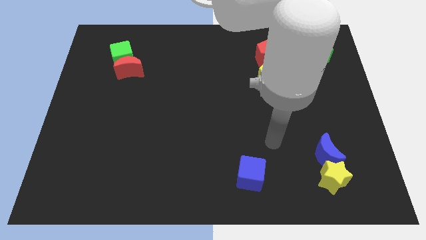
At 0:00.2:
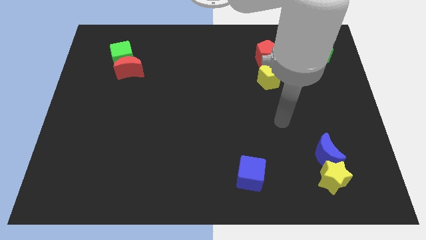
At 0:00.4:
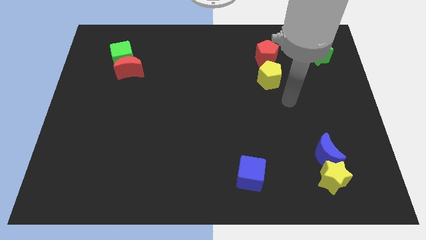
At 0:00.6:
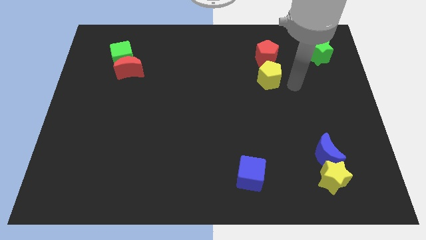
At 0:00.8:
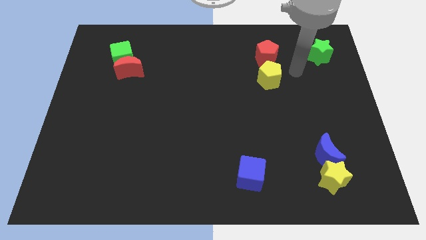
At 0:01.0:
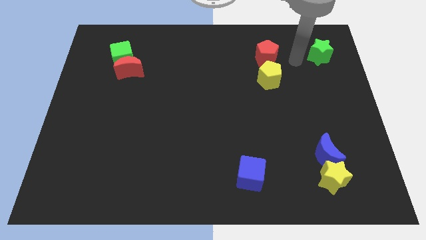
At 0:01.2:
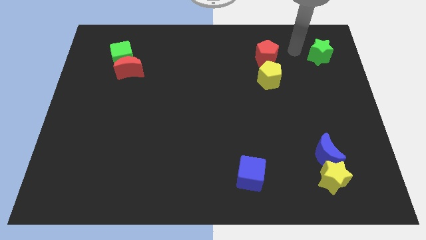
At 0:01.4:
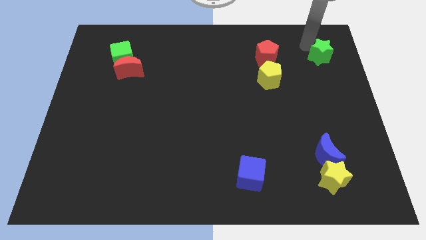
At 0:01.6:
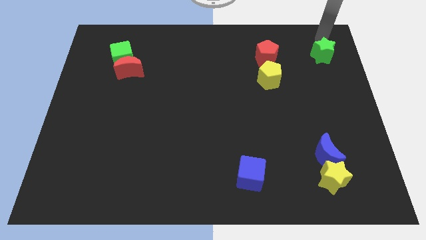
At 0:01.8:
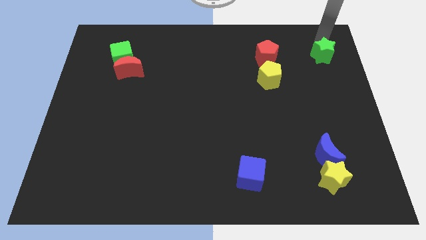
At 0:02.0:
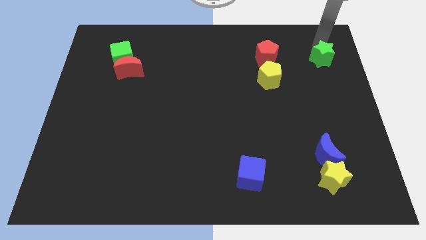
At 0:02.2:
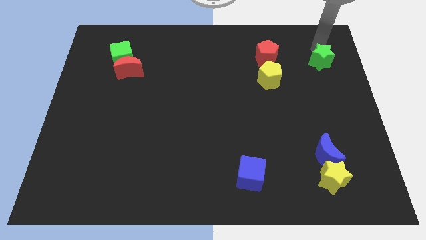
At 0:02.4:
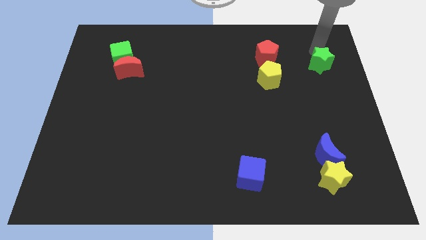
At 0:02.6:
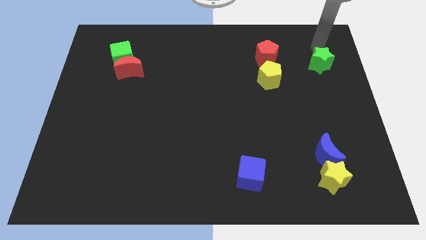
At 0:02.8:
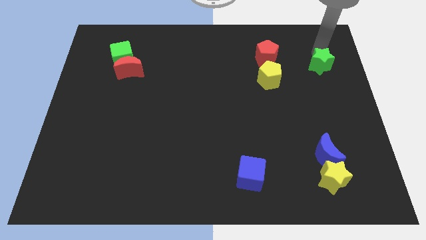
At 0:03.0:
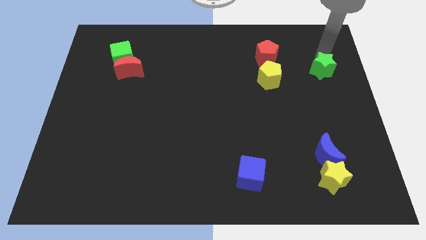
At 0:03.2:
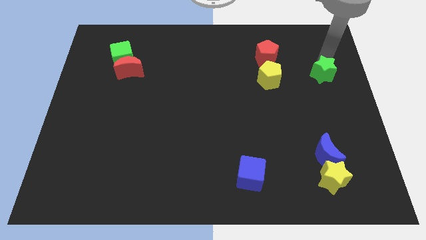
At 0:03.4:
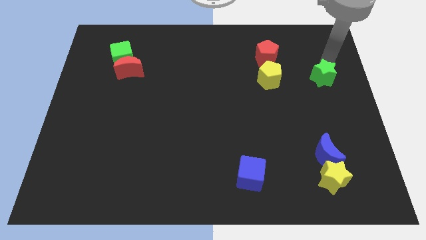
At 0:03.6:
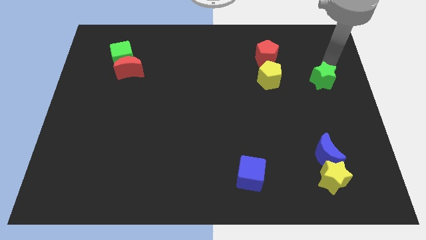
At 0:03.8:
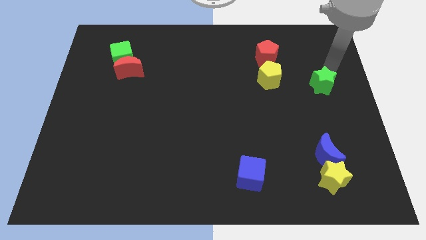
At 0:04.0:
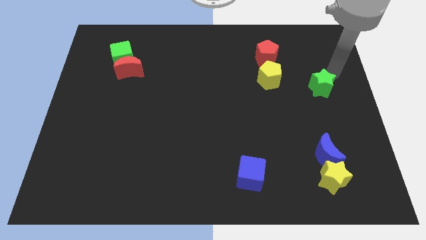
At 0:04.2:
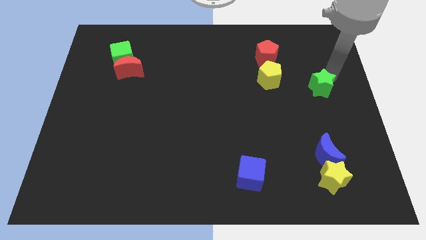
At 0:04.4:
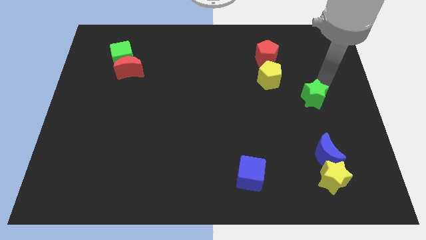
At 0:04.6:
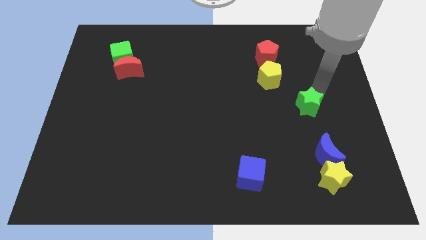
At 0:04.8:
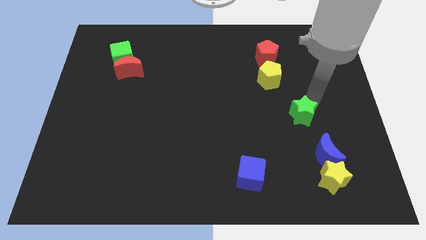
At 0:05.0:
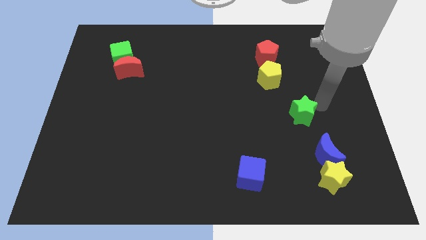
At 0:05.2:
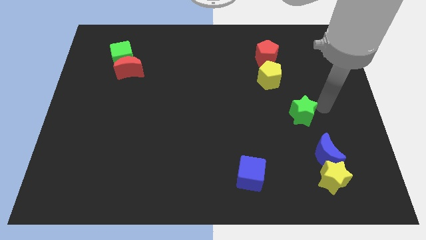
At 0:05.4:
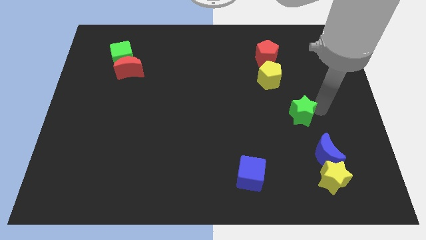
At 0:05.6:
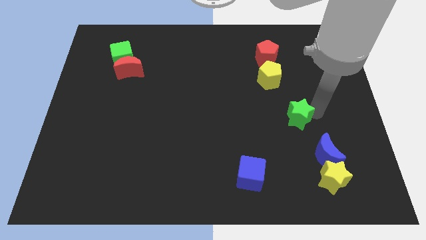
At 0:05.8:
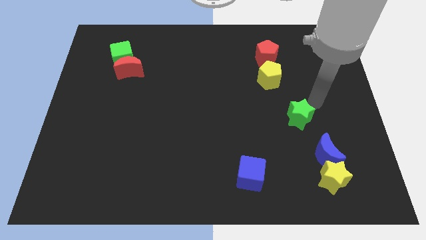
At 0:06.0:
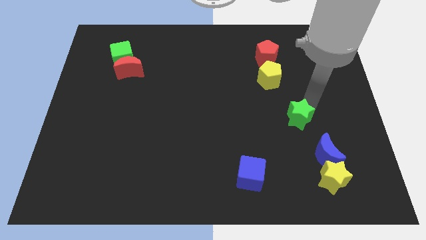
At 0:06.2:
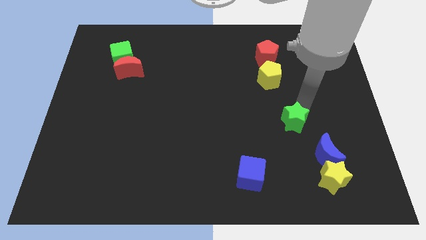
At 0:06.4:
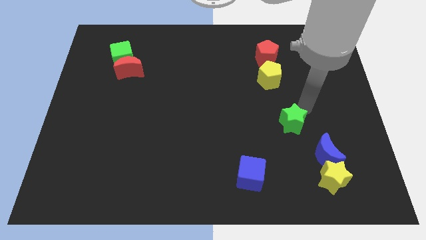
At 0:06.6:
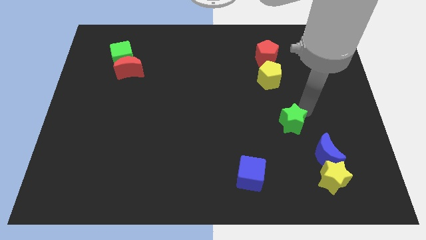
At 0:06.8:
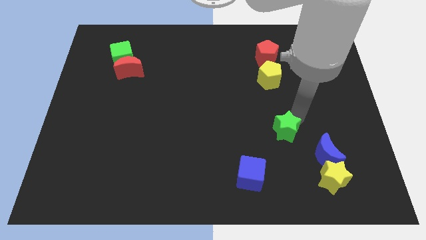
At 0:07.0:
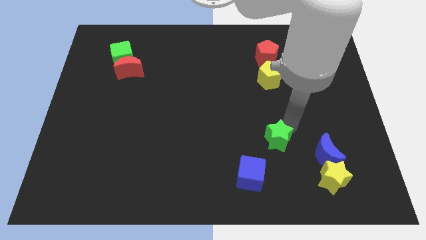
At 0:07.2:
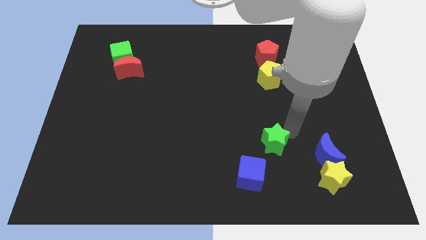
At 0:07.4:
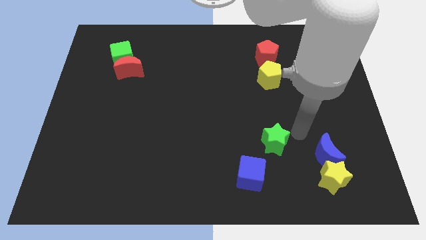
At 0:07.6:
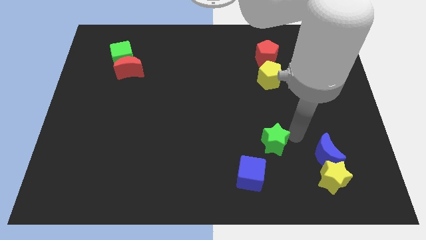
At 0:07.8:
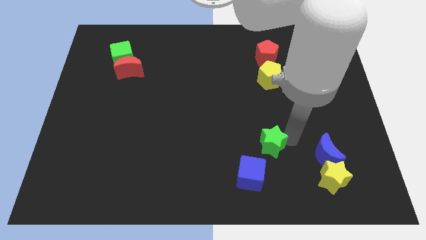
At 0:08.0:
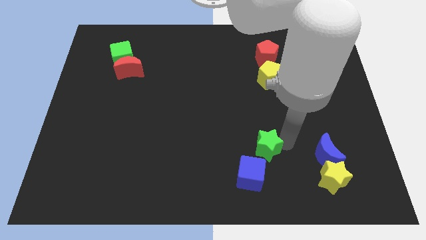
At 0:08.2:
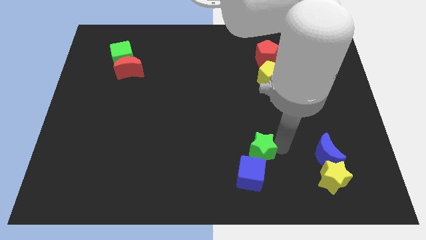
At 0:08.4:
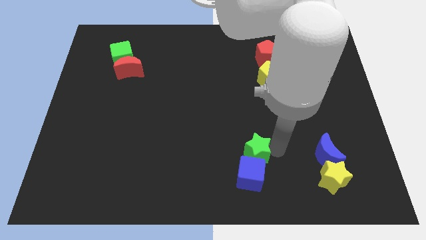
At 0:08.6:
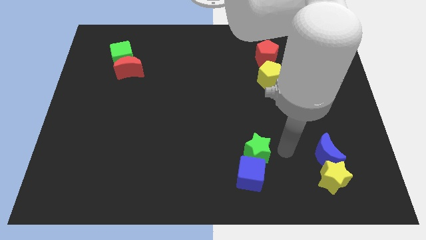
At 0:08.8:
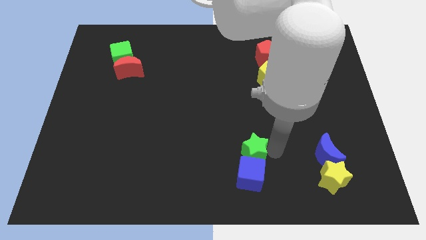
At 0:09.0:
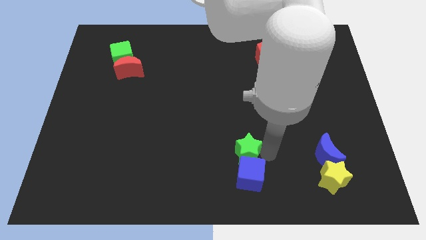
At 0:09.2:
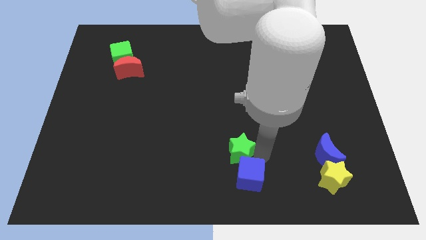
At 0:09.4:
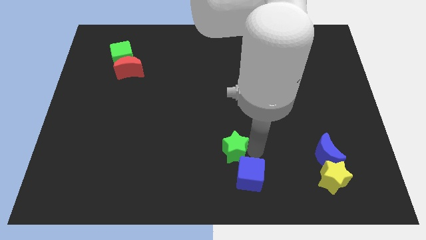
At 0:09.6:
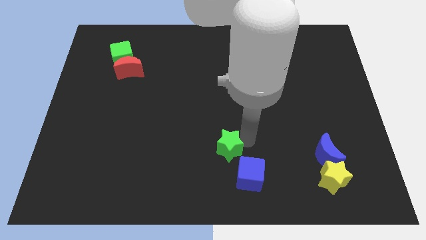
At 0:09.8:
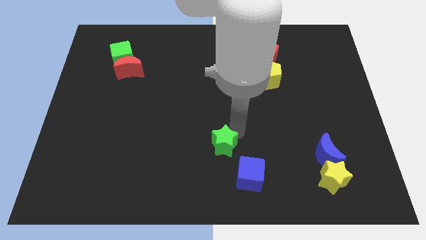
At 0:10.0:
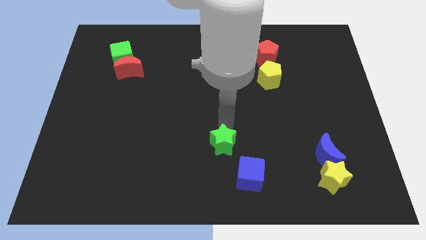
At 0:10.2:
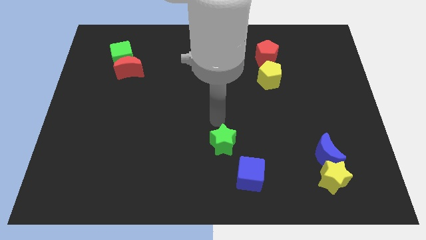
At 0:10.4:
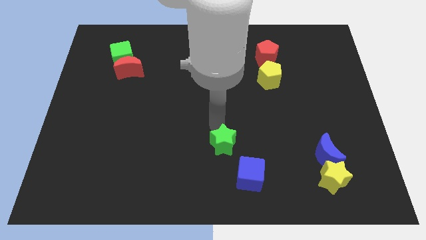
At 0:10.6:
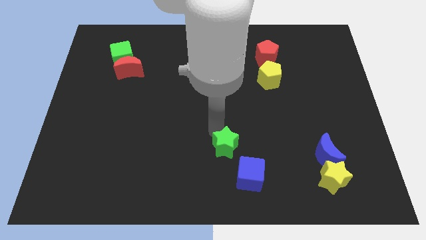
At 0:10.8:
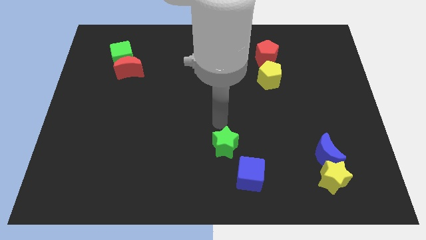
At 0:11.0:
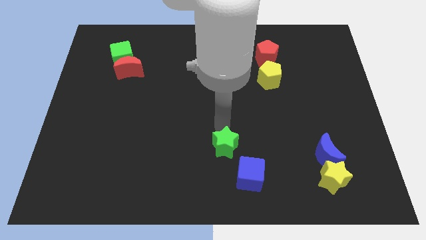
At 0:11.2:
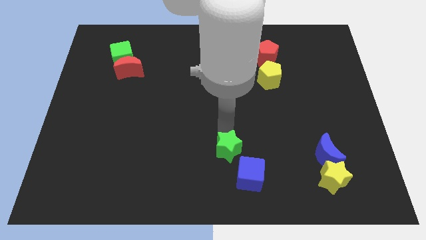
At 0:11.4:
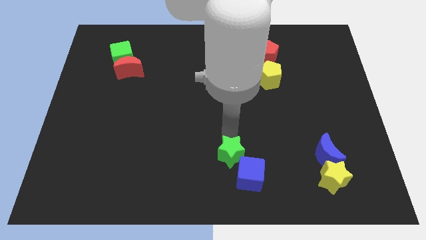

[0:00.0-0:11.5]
put the green star to the bottom side
